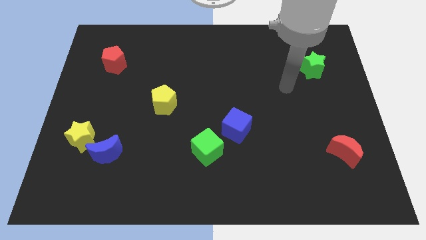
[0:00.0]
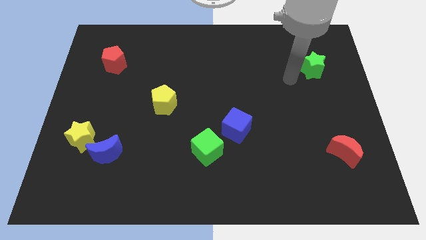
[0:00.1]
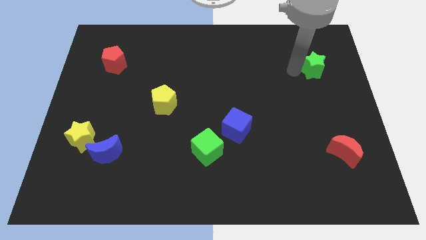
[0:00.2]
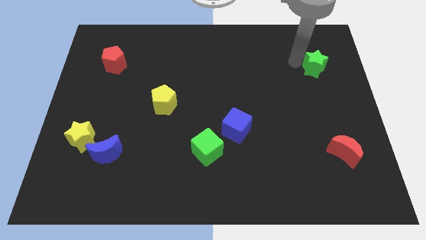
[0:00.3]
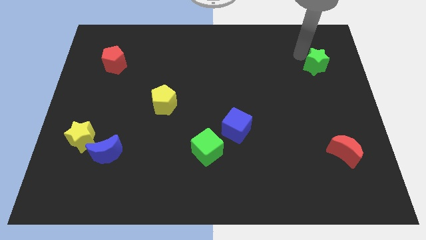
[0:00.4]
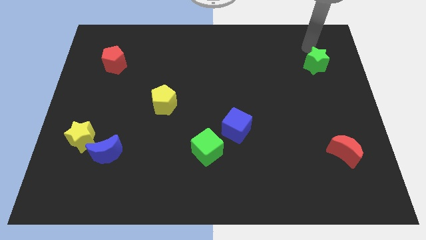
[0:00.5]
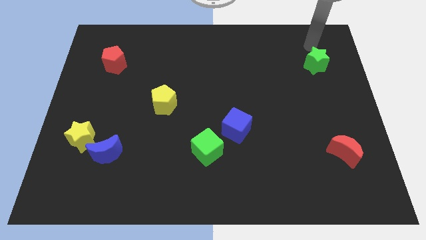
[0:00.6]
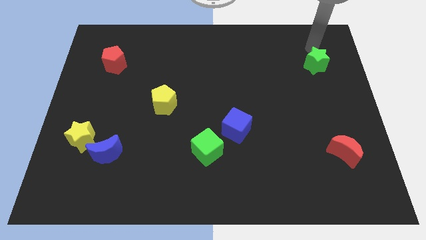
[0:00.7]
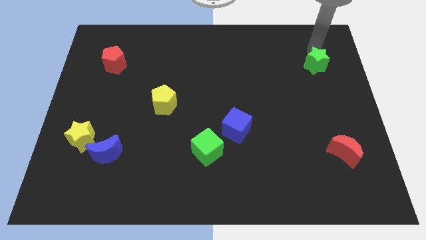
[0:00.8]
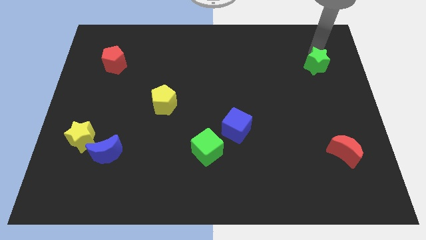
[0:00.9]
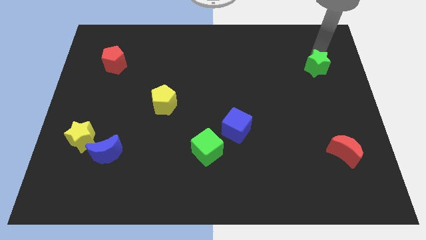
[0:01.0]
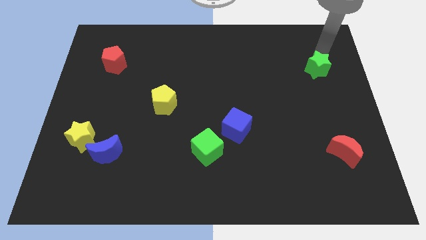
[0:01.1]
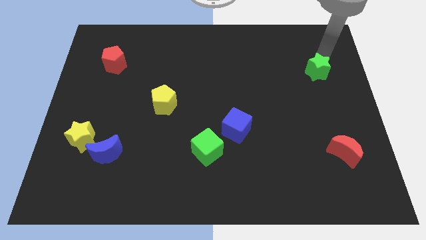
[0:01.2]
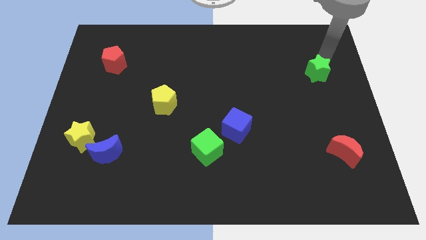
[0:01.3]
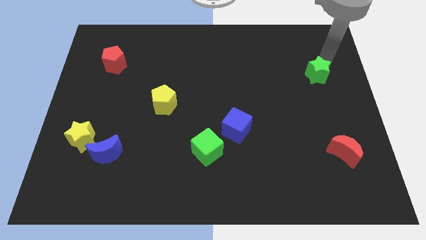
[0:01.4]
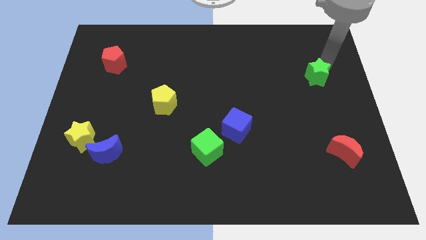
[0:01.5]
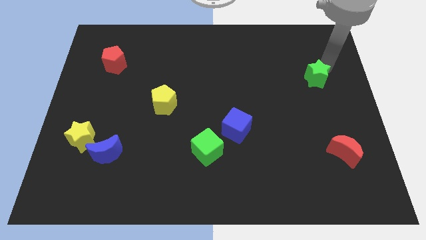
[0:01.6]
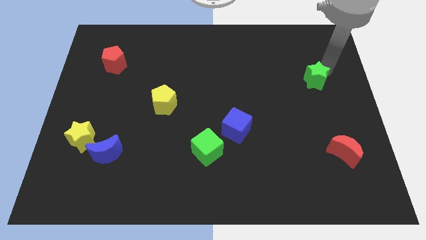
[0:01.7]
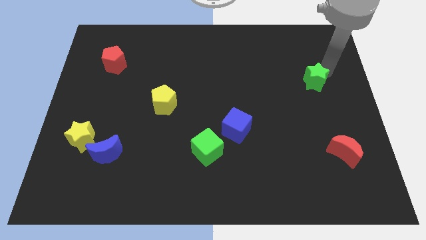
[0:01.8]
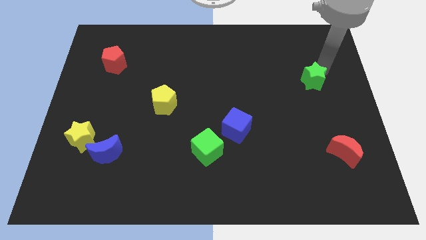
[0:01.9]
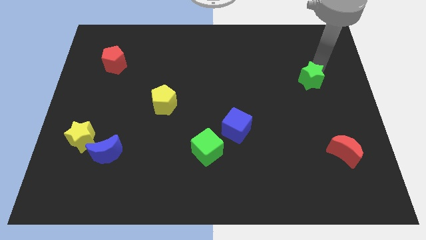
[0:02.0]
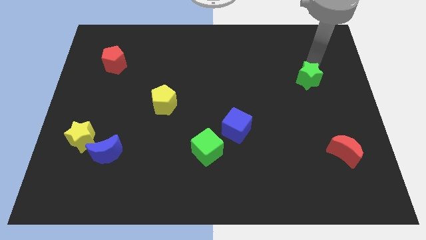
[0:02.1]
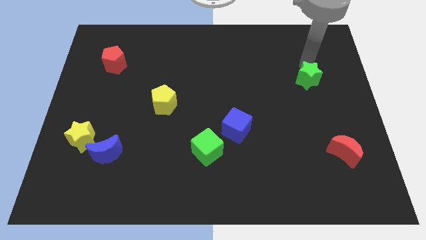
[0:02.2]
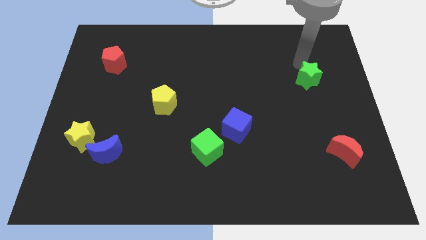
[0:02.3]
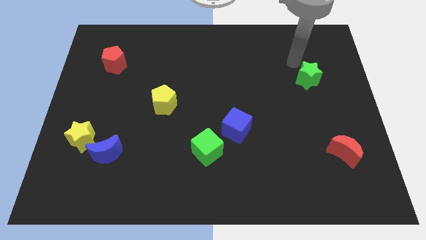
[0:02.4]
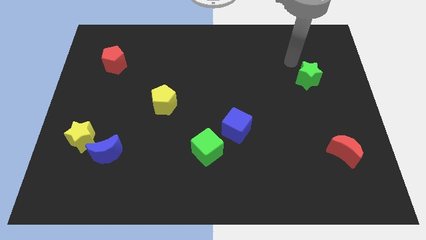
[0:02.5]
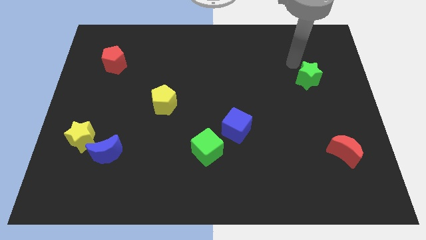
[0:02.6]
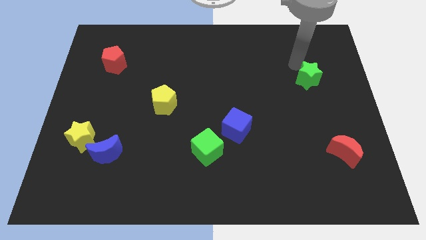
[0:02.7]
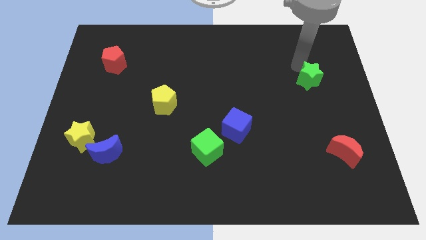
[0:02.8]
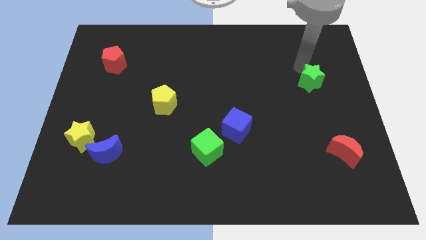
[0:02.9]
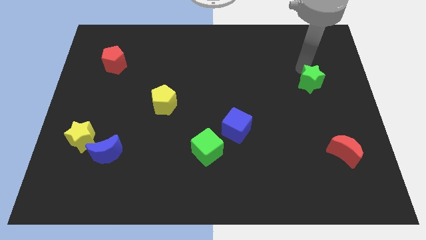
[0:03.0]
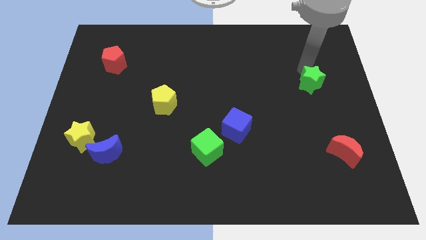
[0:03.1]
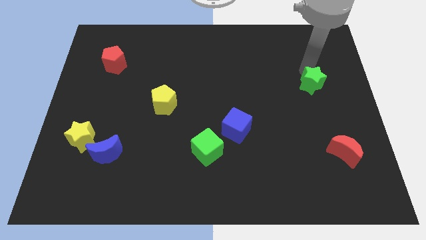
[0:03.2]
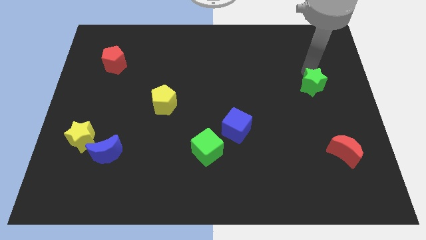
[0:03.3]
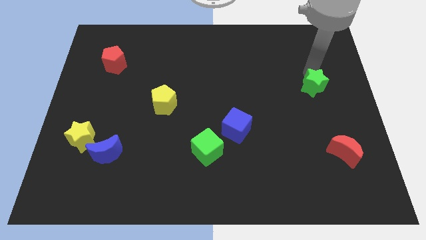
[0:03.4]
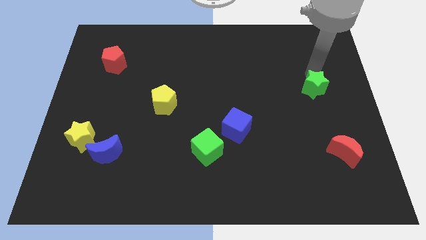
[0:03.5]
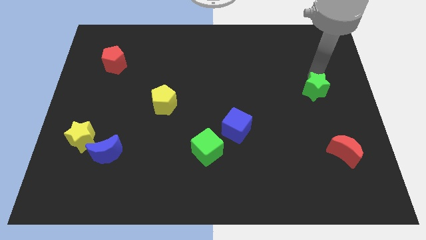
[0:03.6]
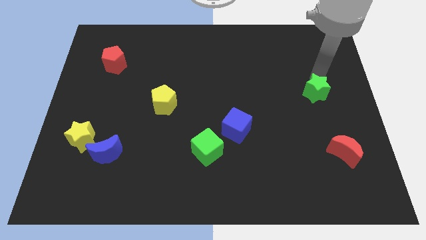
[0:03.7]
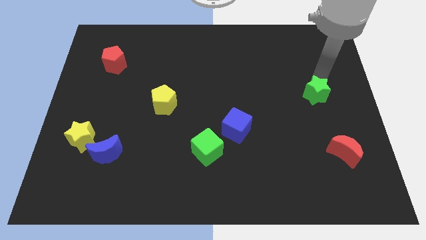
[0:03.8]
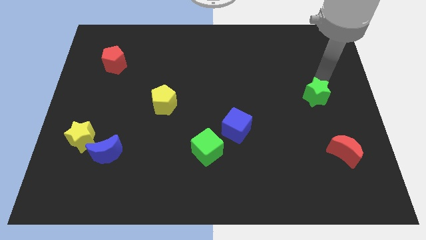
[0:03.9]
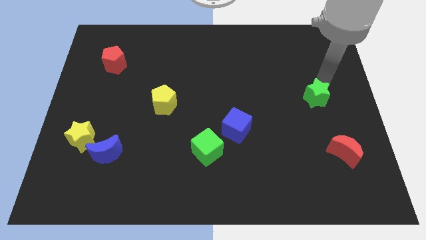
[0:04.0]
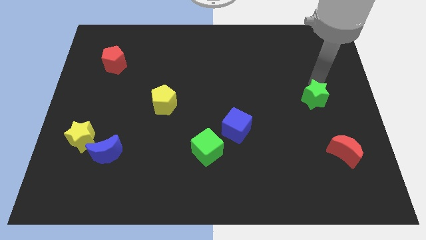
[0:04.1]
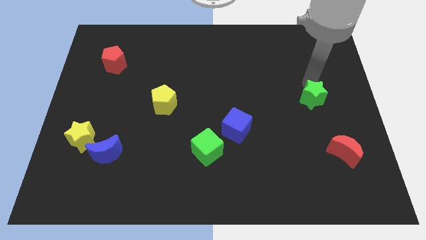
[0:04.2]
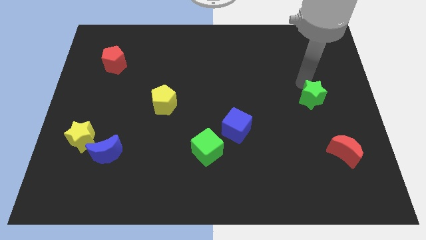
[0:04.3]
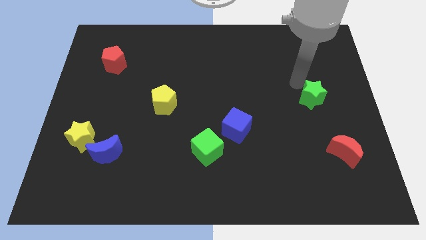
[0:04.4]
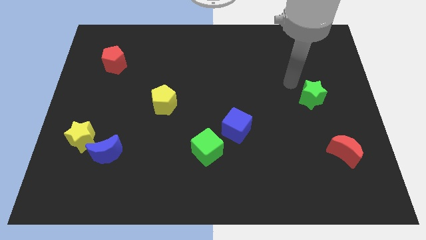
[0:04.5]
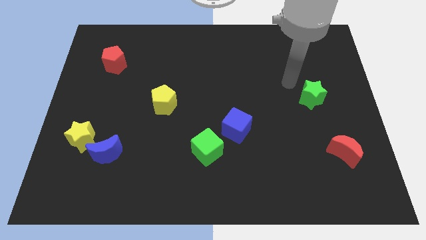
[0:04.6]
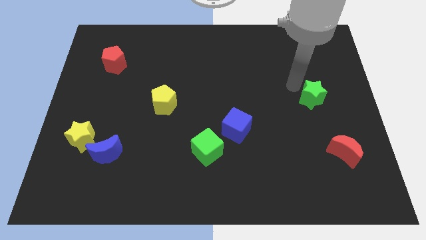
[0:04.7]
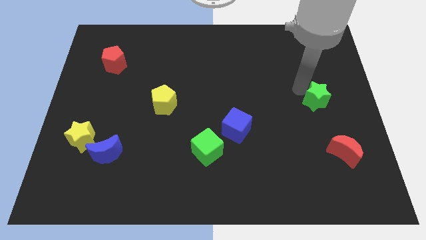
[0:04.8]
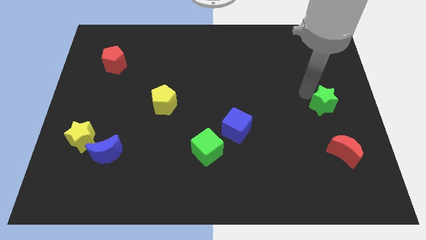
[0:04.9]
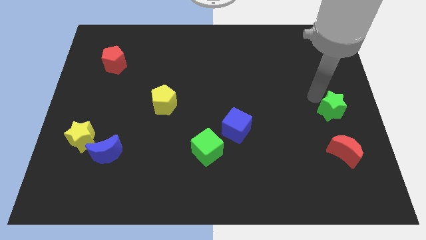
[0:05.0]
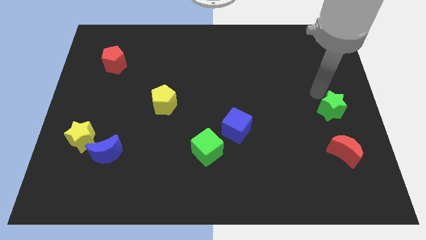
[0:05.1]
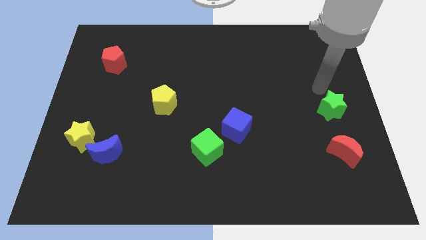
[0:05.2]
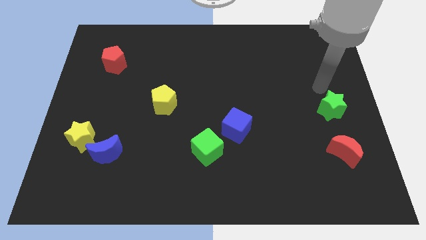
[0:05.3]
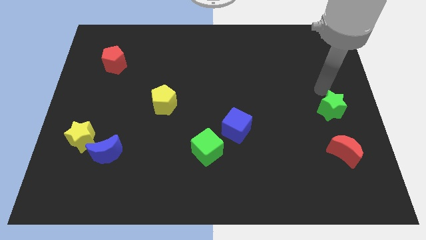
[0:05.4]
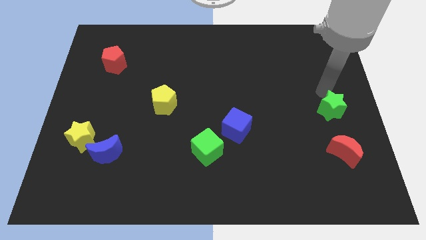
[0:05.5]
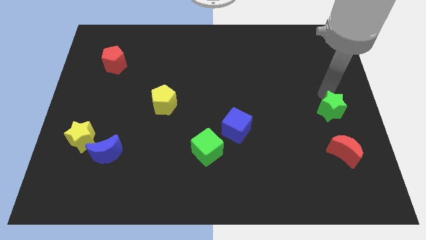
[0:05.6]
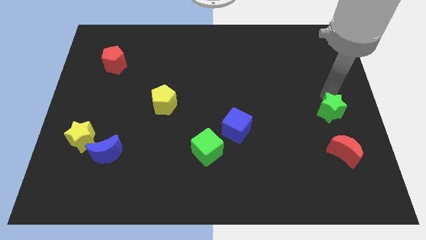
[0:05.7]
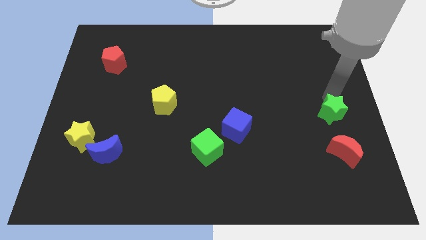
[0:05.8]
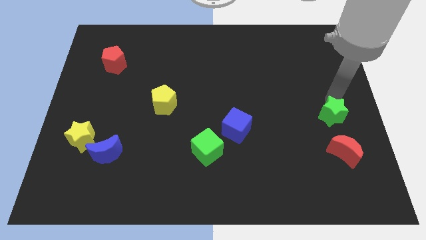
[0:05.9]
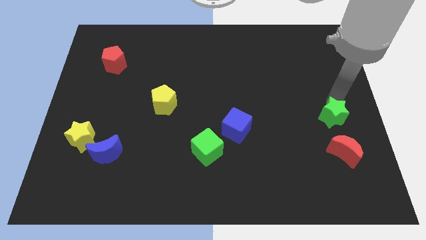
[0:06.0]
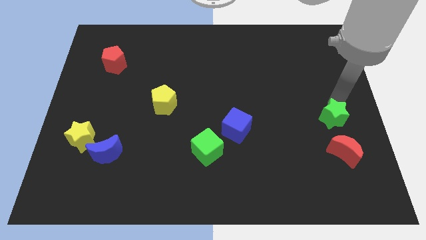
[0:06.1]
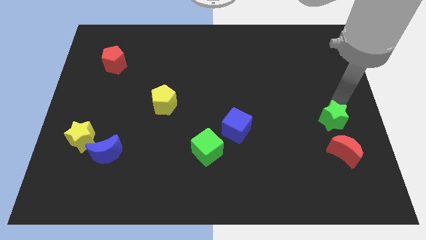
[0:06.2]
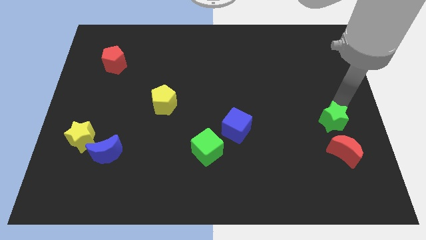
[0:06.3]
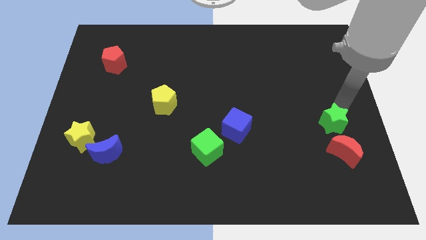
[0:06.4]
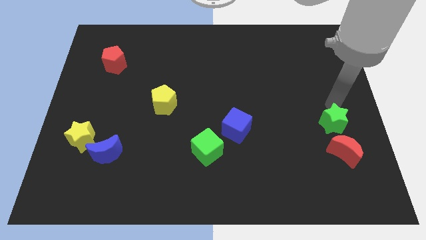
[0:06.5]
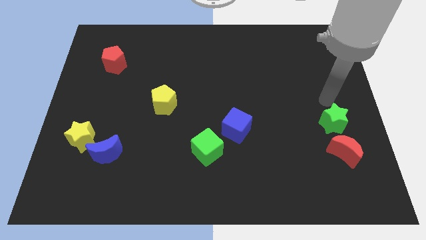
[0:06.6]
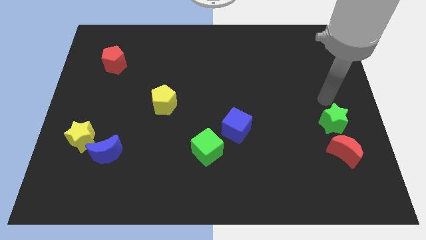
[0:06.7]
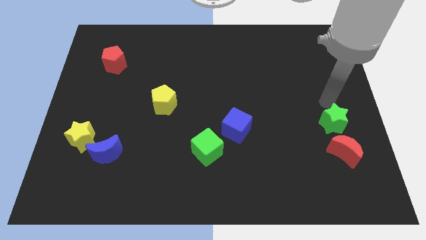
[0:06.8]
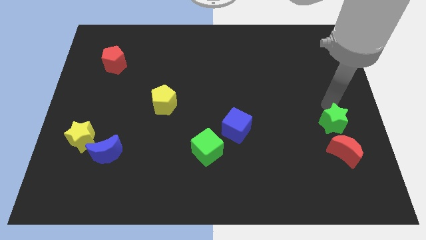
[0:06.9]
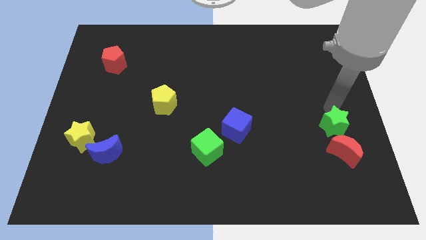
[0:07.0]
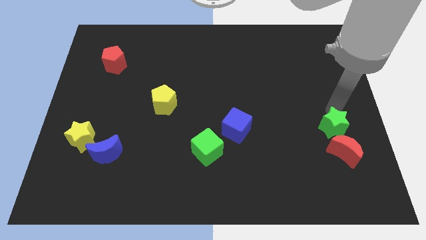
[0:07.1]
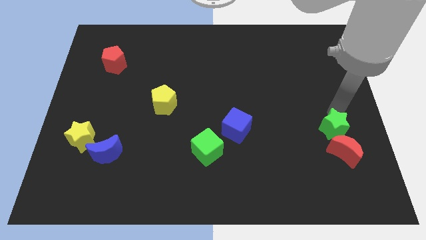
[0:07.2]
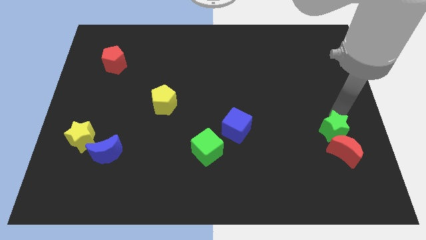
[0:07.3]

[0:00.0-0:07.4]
move the green star next to the red moon
